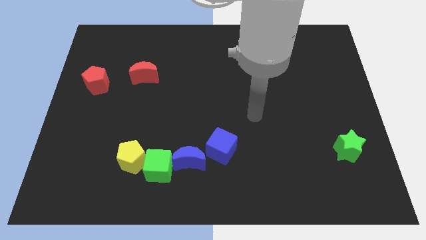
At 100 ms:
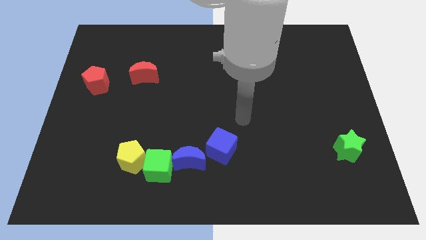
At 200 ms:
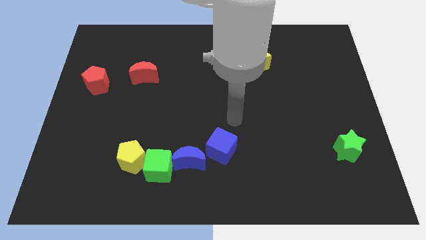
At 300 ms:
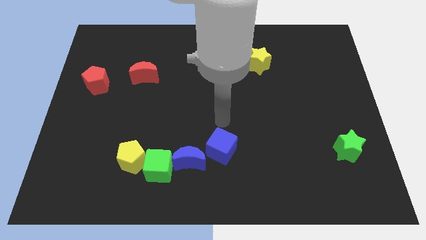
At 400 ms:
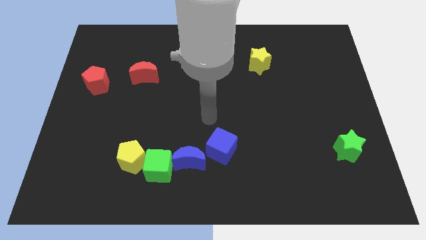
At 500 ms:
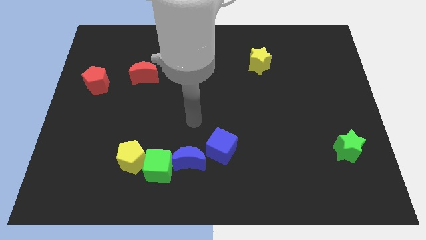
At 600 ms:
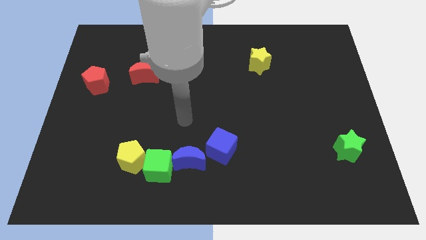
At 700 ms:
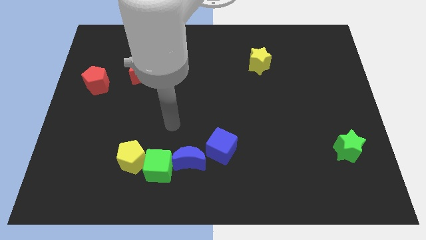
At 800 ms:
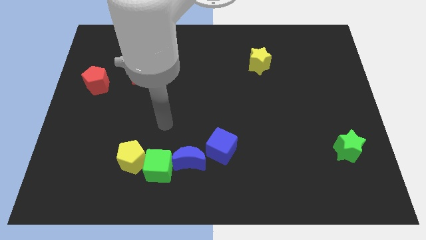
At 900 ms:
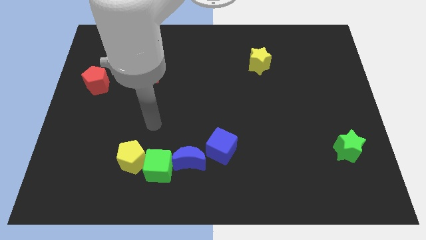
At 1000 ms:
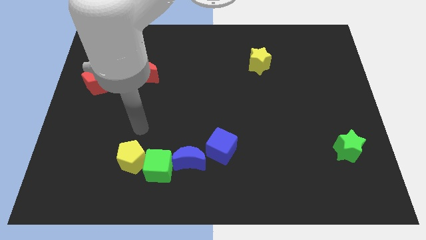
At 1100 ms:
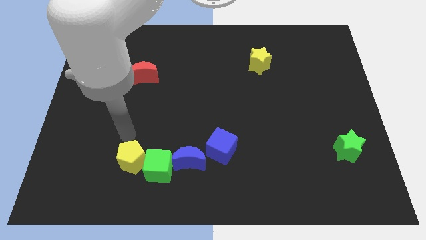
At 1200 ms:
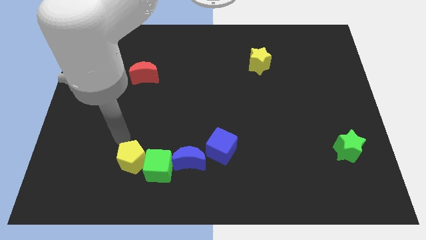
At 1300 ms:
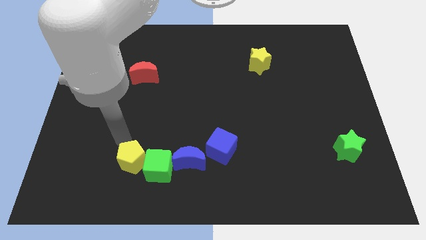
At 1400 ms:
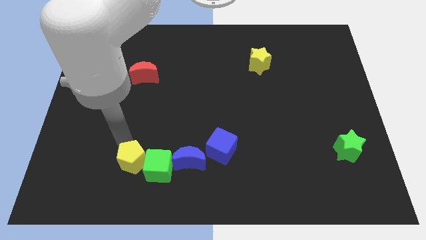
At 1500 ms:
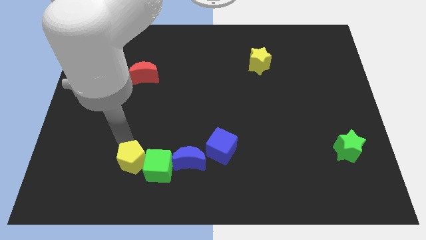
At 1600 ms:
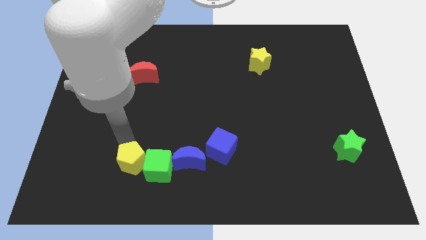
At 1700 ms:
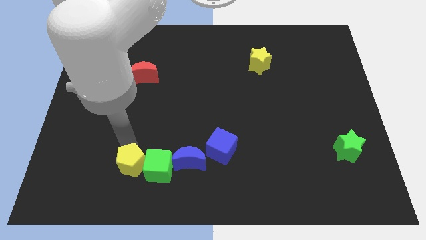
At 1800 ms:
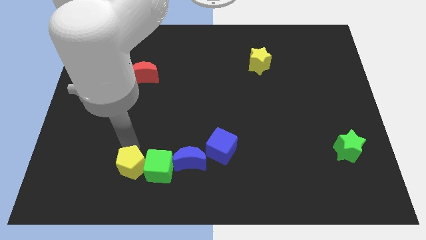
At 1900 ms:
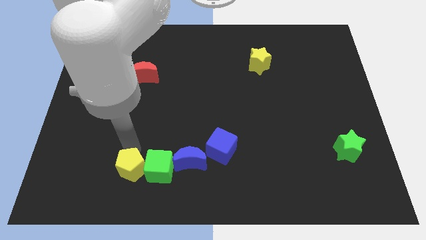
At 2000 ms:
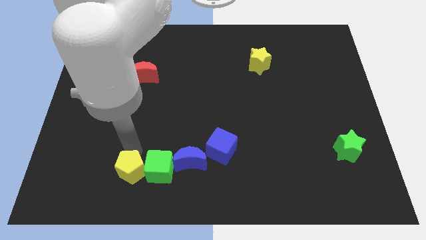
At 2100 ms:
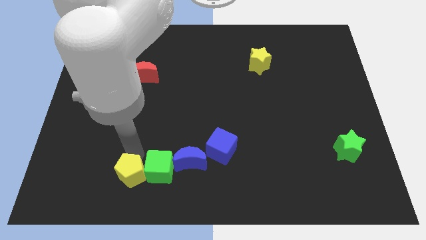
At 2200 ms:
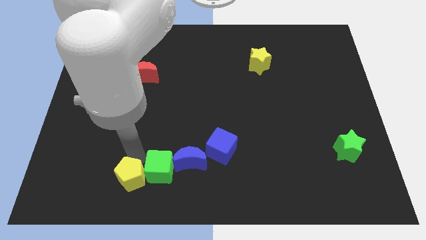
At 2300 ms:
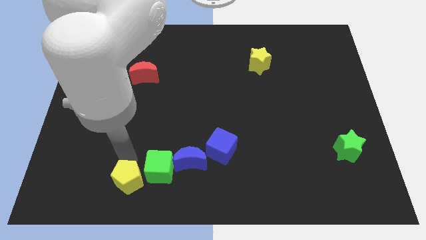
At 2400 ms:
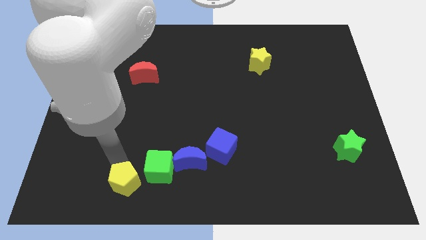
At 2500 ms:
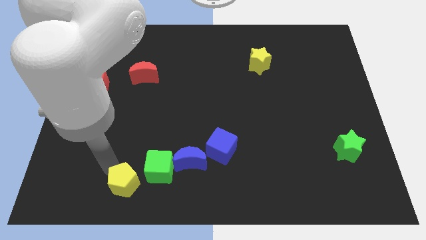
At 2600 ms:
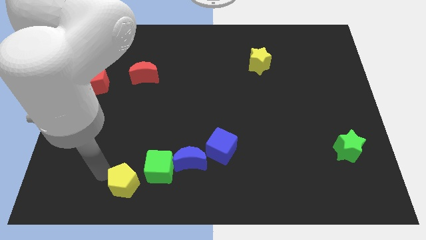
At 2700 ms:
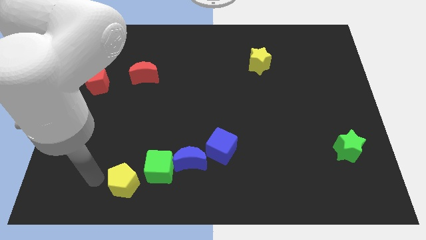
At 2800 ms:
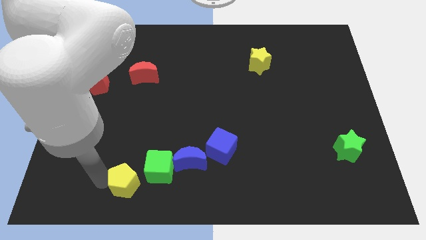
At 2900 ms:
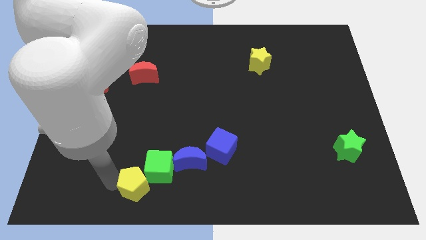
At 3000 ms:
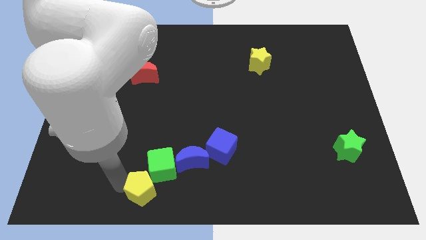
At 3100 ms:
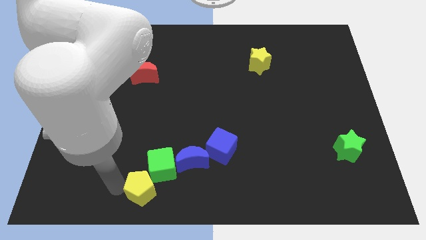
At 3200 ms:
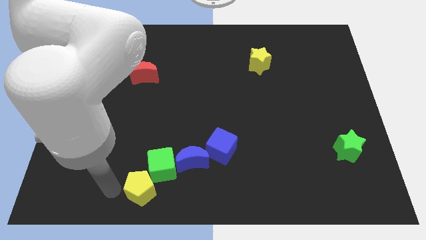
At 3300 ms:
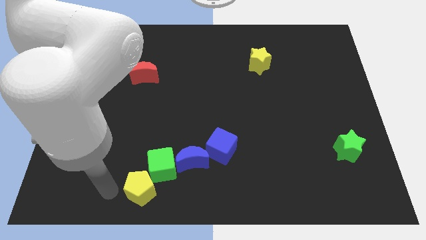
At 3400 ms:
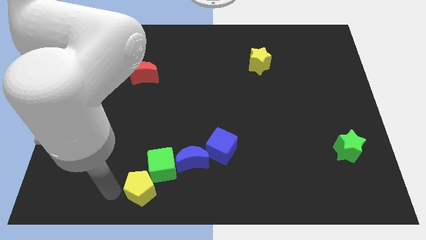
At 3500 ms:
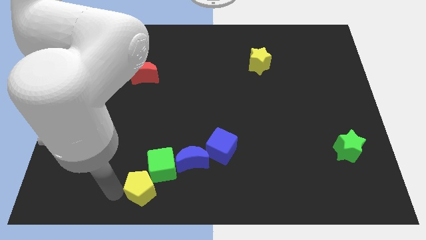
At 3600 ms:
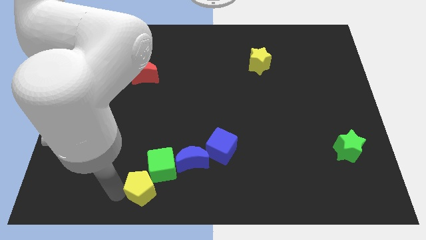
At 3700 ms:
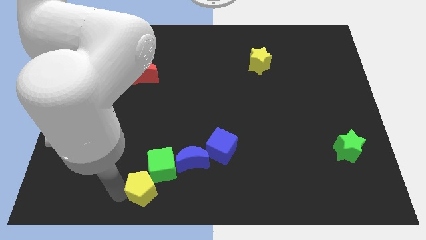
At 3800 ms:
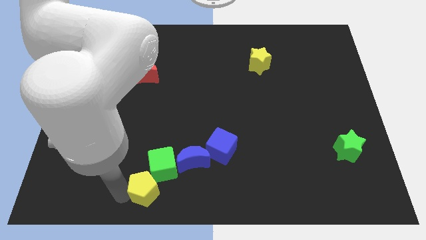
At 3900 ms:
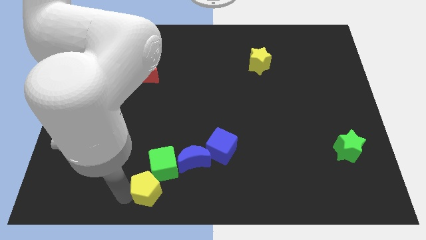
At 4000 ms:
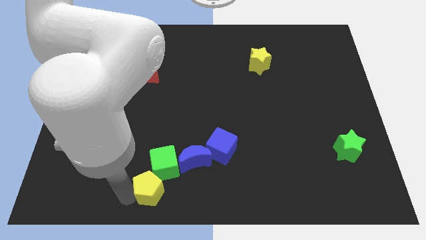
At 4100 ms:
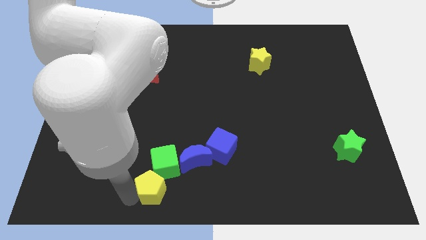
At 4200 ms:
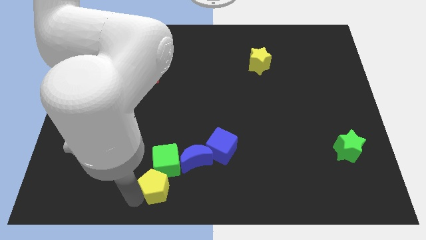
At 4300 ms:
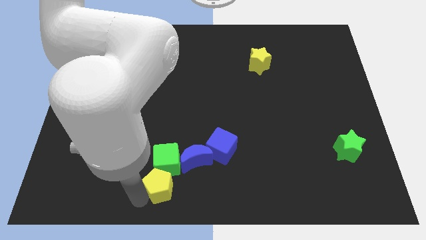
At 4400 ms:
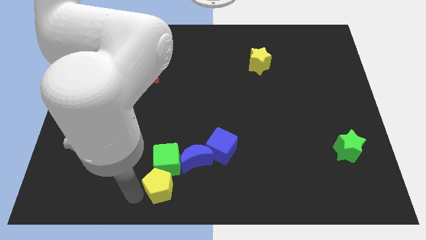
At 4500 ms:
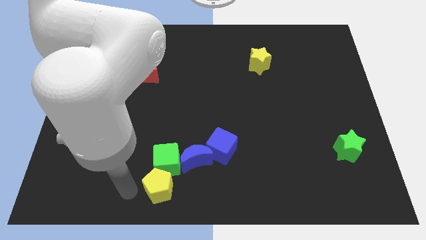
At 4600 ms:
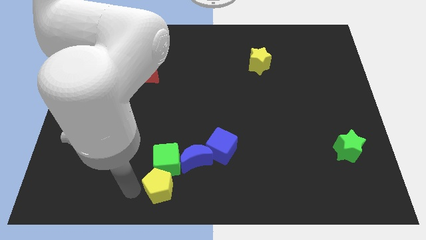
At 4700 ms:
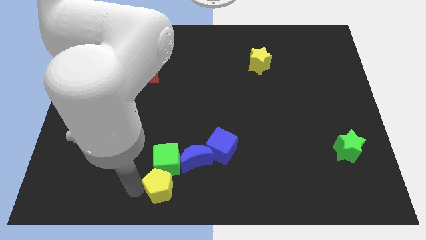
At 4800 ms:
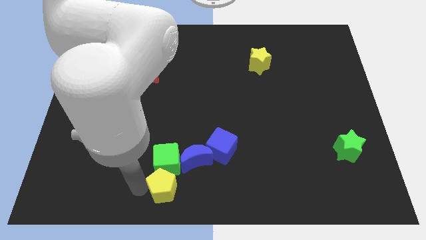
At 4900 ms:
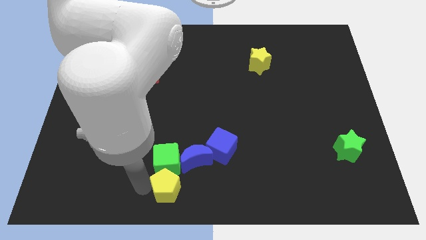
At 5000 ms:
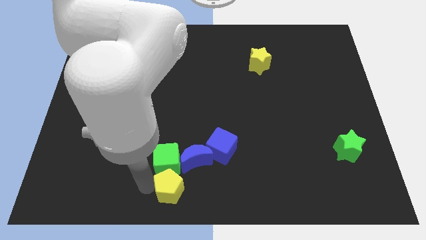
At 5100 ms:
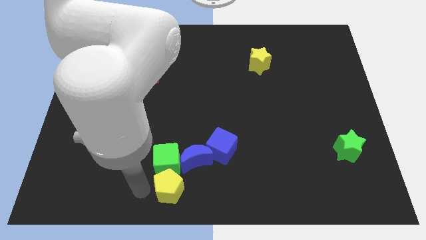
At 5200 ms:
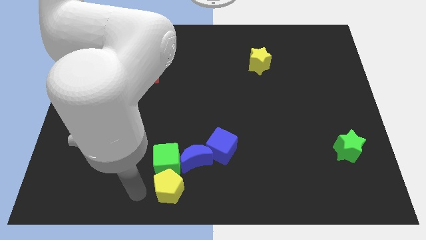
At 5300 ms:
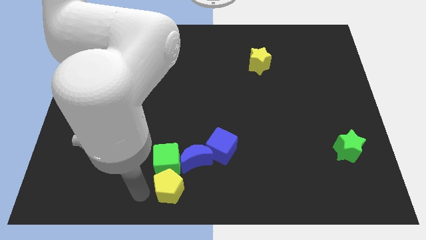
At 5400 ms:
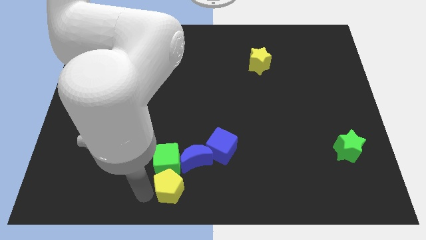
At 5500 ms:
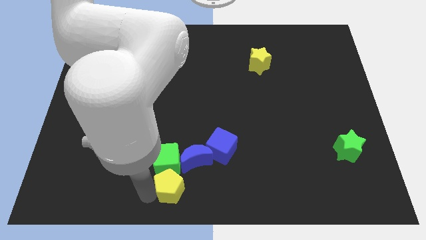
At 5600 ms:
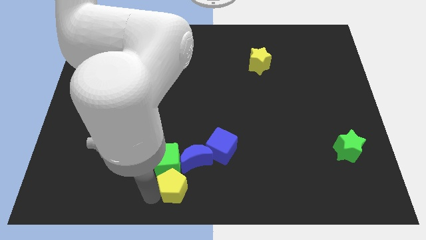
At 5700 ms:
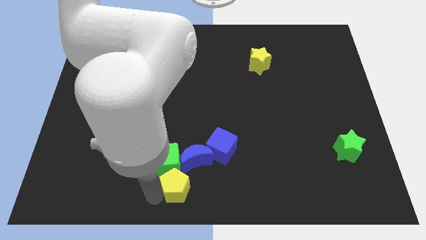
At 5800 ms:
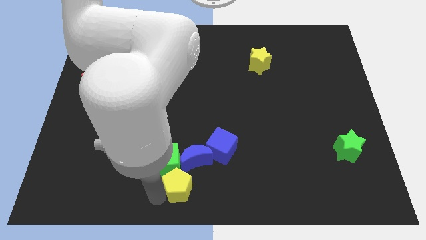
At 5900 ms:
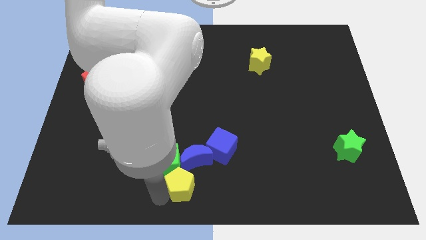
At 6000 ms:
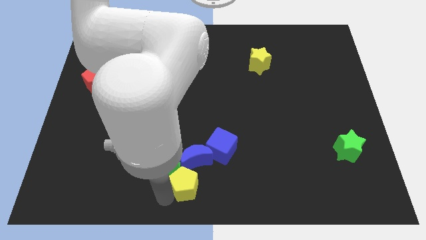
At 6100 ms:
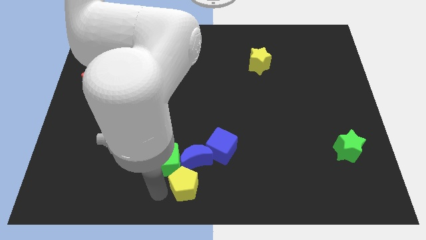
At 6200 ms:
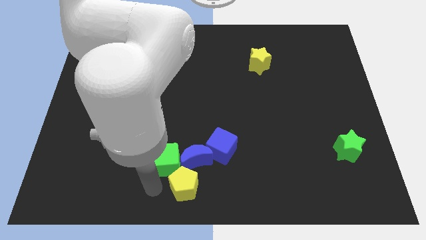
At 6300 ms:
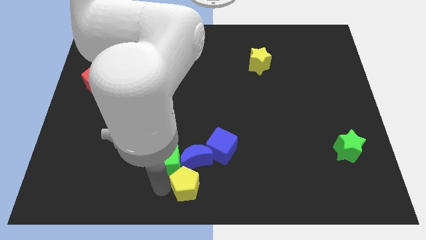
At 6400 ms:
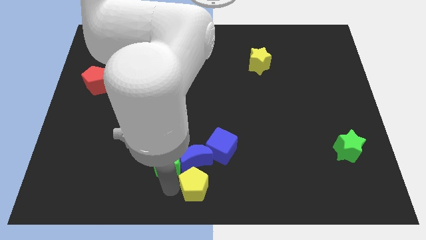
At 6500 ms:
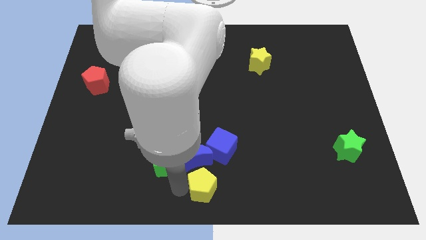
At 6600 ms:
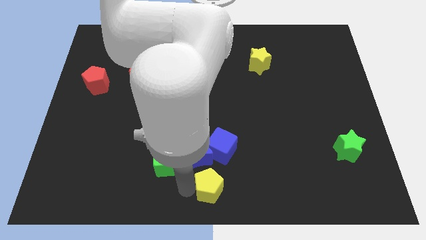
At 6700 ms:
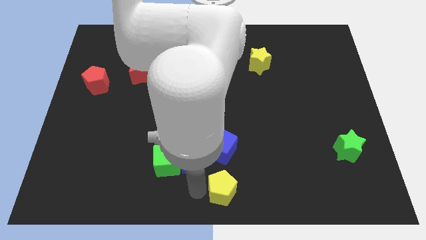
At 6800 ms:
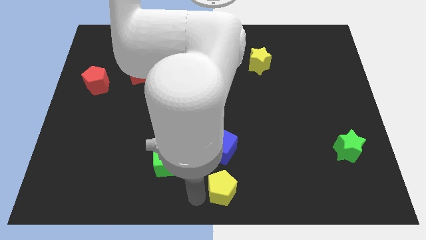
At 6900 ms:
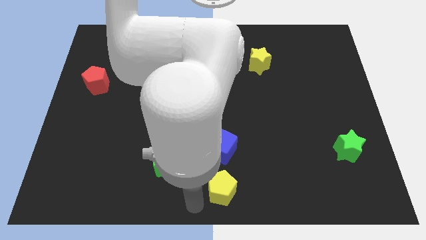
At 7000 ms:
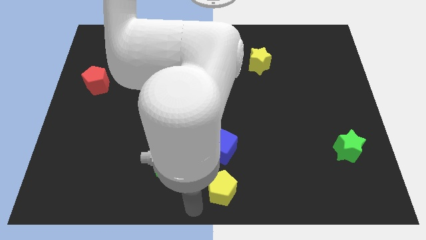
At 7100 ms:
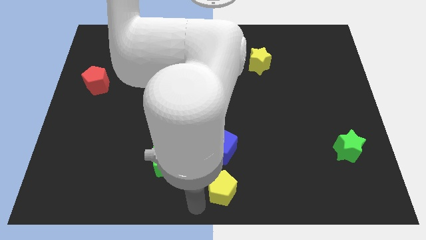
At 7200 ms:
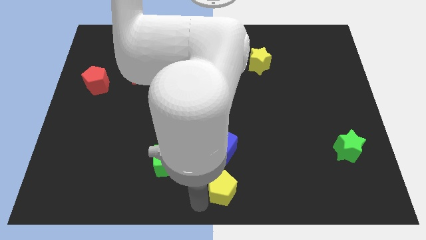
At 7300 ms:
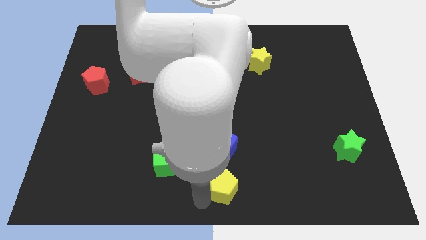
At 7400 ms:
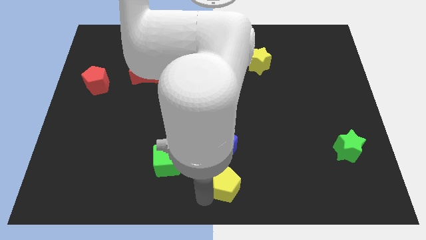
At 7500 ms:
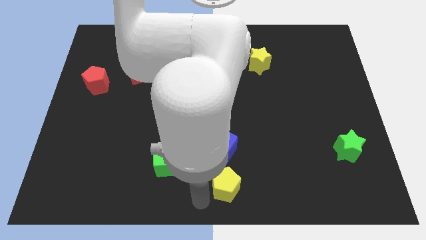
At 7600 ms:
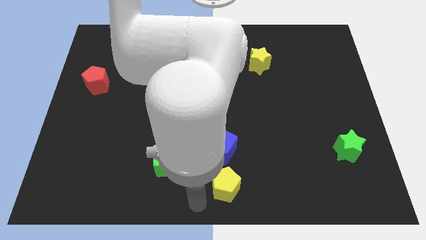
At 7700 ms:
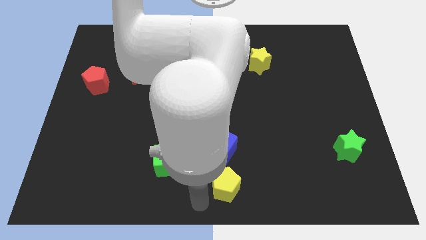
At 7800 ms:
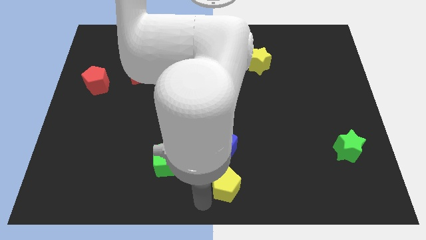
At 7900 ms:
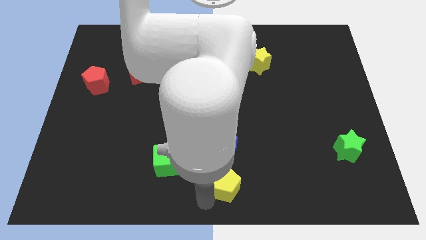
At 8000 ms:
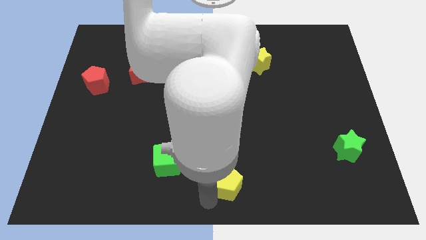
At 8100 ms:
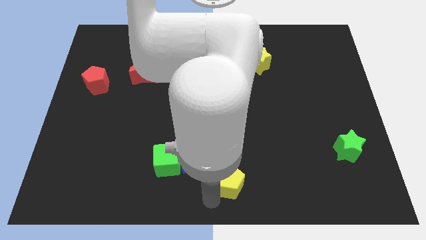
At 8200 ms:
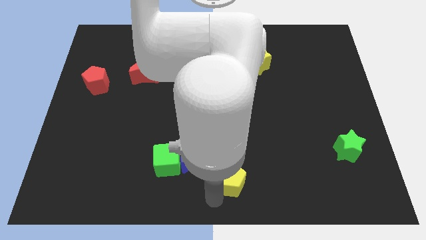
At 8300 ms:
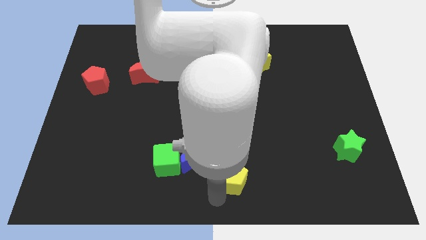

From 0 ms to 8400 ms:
push the yellow pentagon to the right
